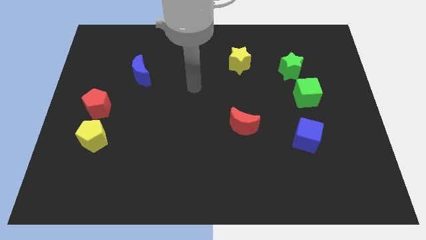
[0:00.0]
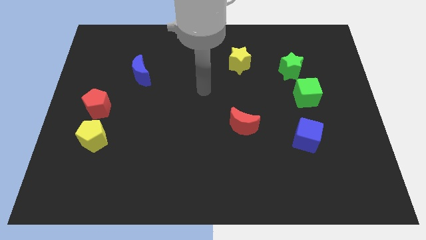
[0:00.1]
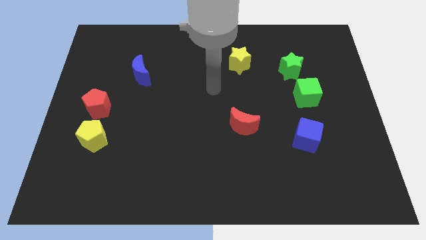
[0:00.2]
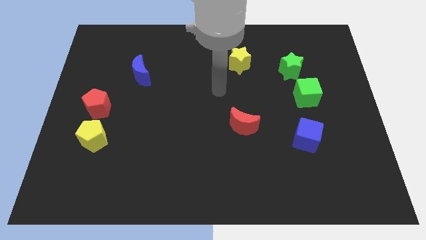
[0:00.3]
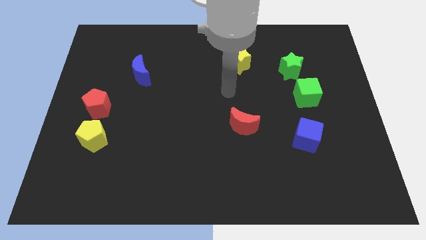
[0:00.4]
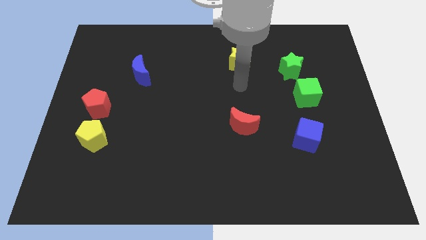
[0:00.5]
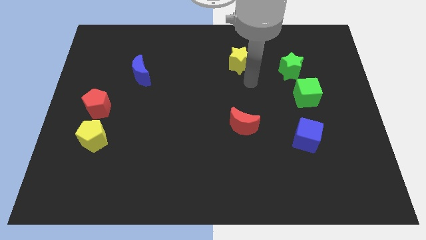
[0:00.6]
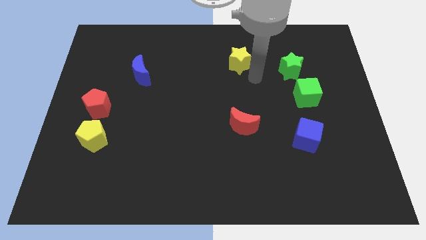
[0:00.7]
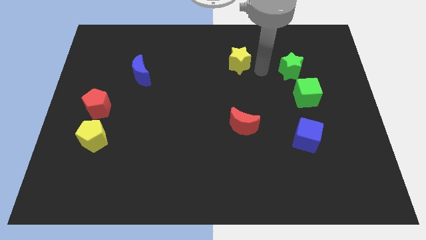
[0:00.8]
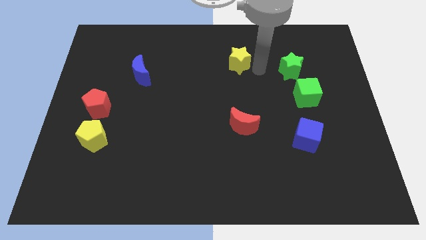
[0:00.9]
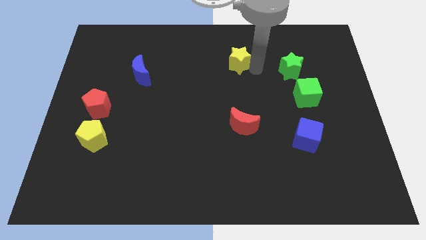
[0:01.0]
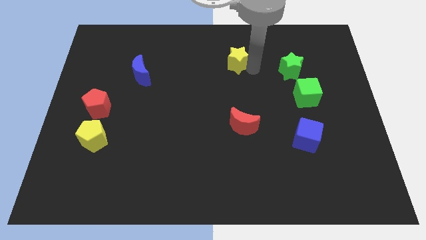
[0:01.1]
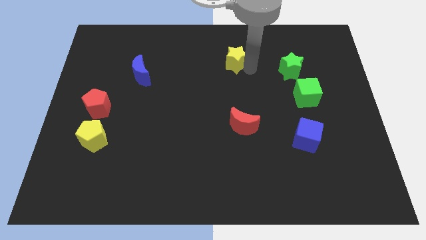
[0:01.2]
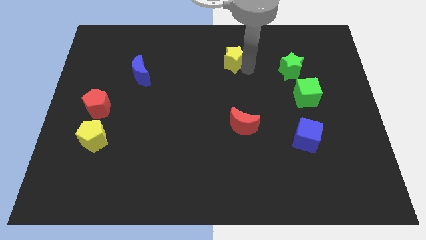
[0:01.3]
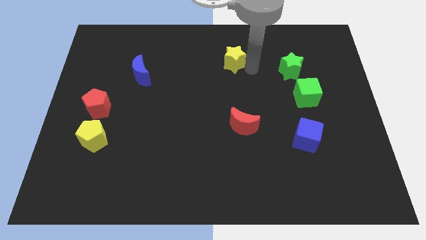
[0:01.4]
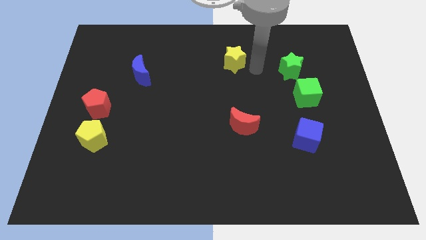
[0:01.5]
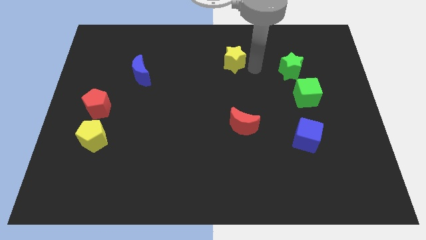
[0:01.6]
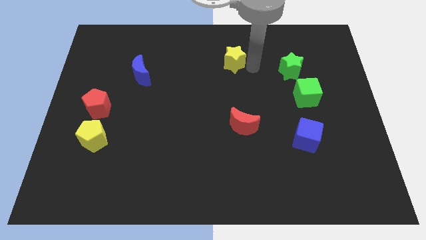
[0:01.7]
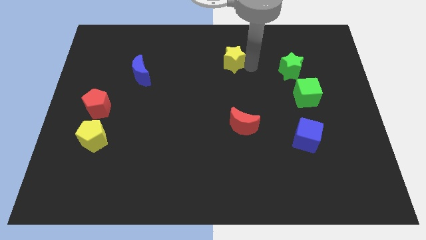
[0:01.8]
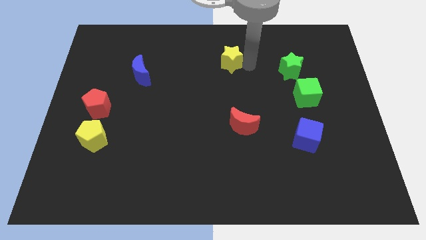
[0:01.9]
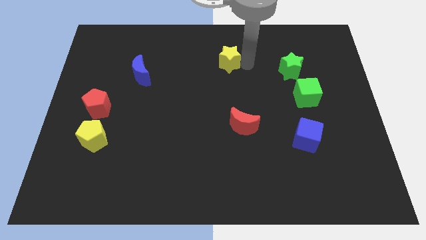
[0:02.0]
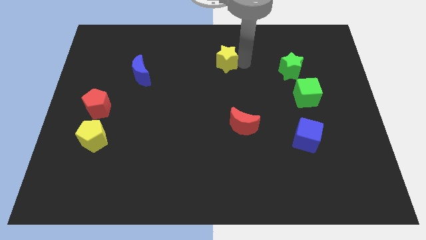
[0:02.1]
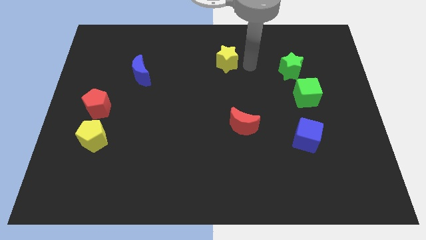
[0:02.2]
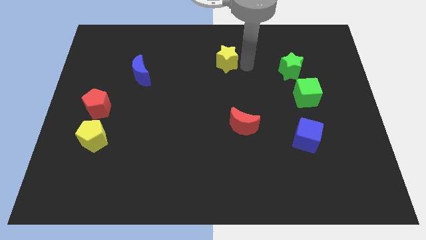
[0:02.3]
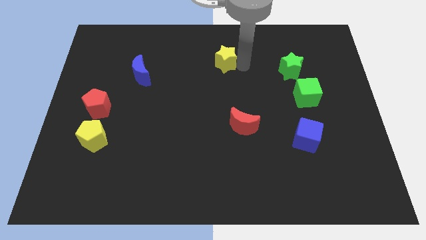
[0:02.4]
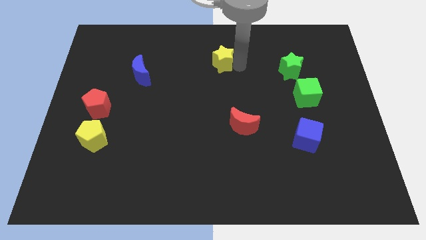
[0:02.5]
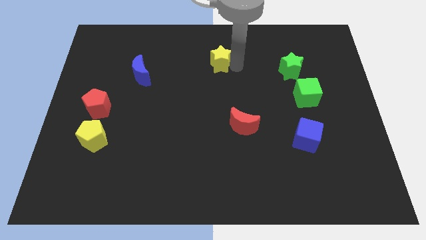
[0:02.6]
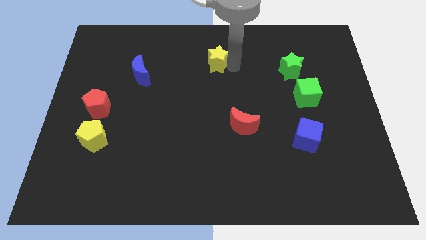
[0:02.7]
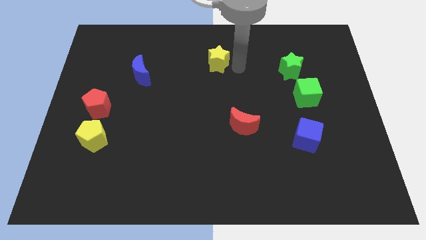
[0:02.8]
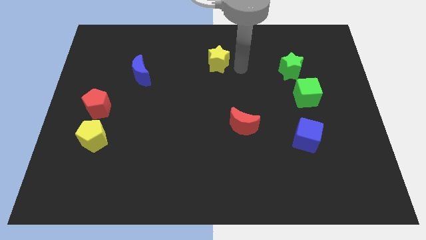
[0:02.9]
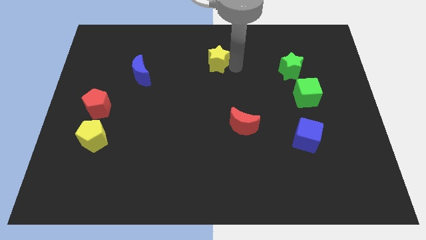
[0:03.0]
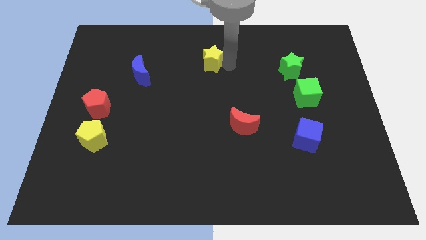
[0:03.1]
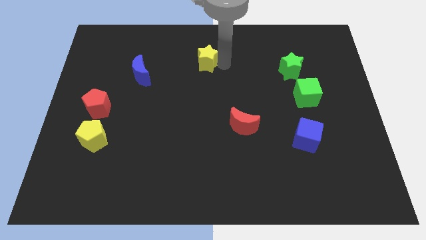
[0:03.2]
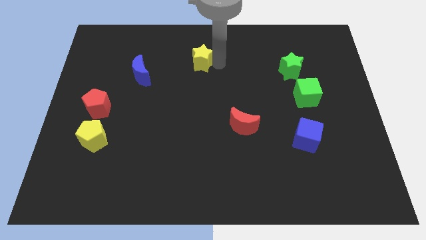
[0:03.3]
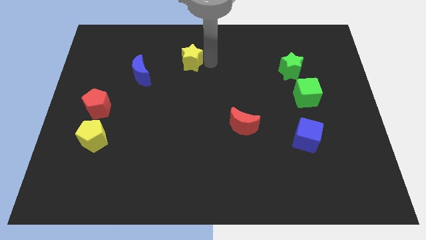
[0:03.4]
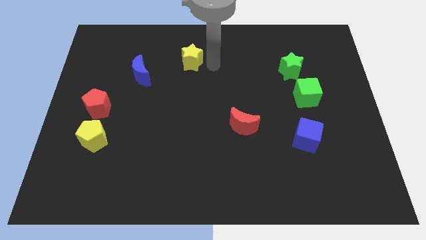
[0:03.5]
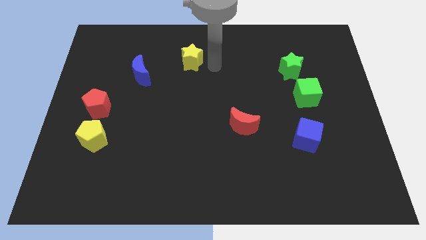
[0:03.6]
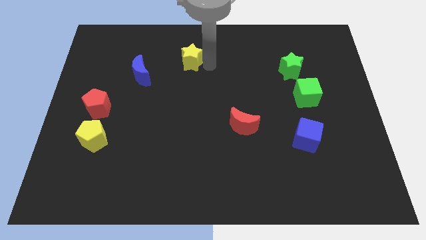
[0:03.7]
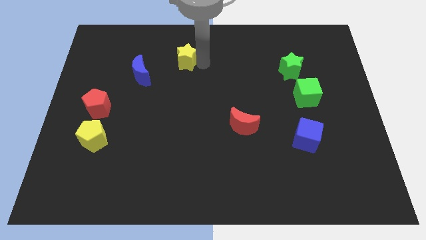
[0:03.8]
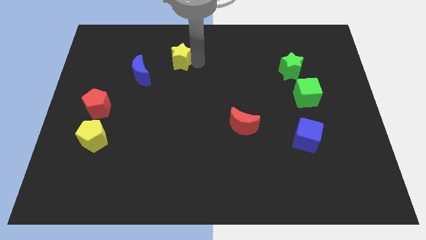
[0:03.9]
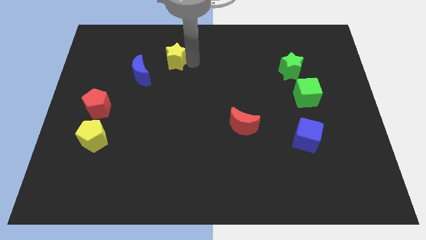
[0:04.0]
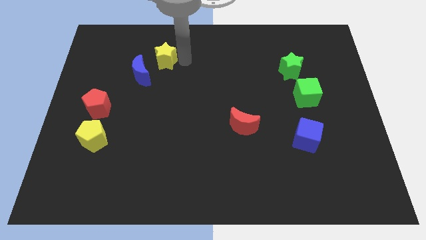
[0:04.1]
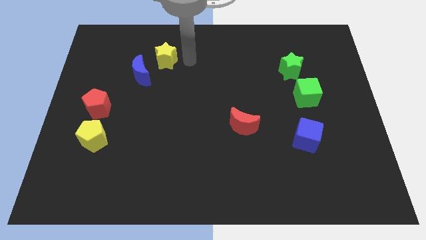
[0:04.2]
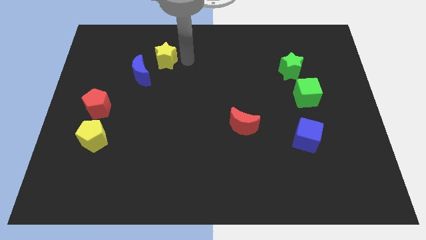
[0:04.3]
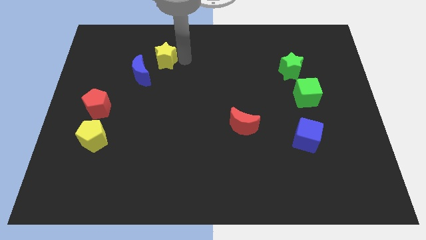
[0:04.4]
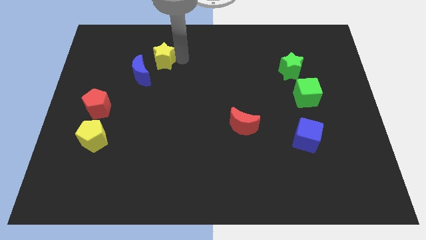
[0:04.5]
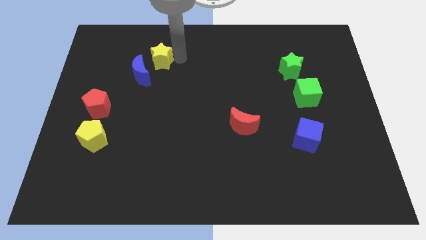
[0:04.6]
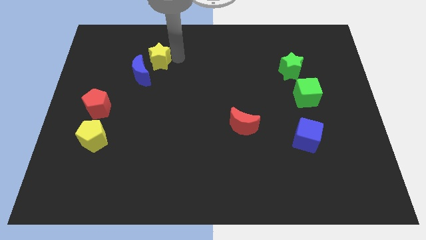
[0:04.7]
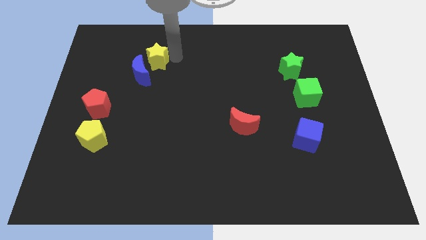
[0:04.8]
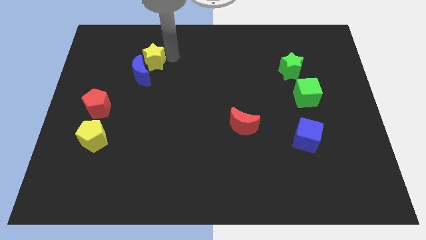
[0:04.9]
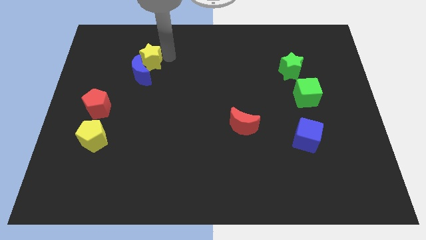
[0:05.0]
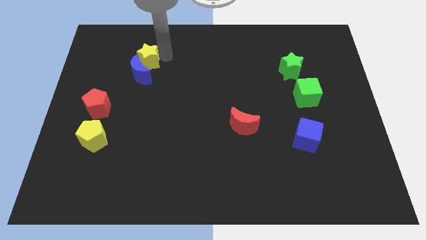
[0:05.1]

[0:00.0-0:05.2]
move the yellow star diagonally up and to the left of the blue moon

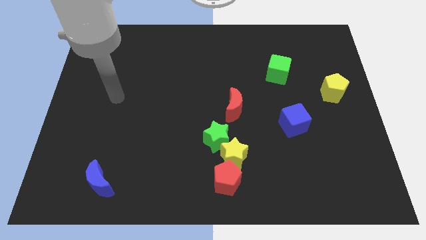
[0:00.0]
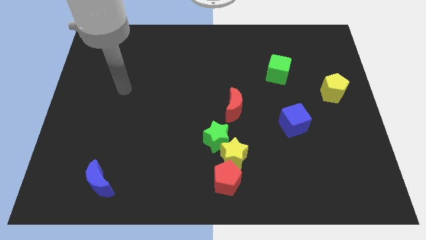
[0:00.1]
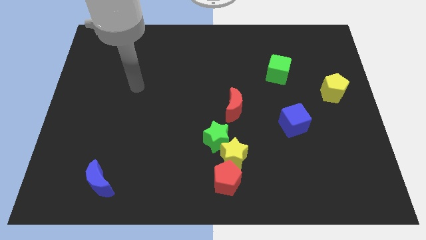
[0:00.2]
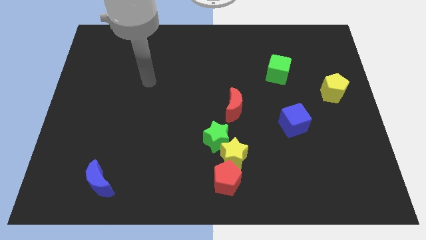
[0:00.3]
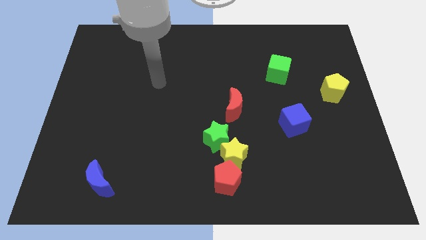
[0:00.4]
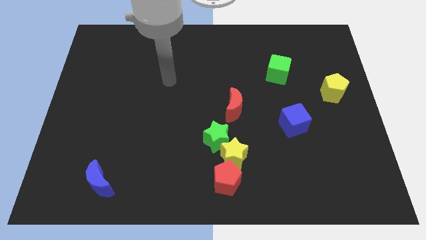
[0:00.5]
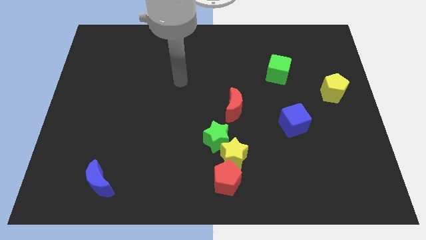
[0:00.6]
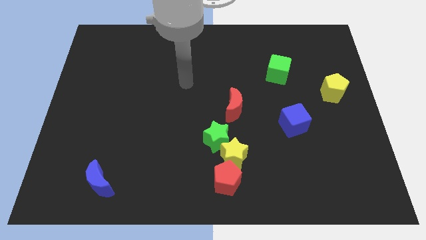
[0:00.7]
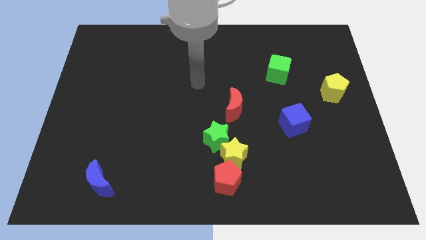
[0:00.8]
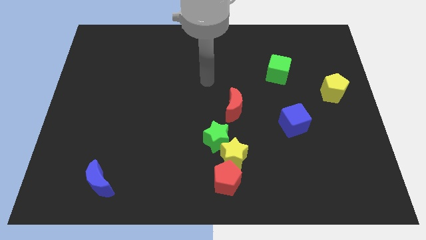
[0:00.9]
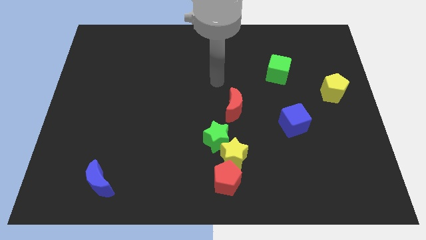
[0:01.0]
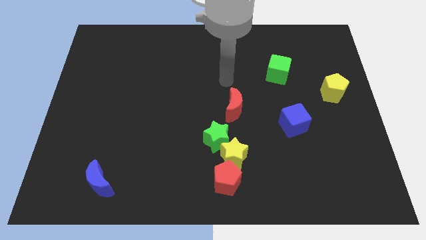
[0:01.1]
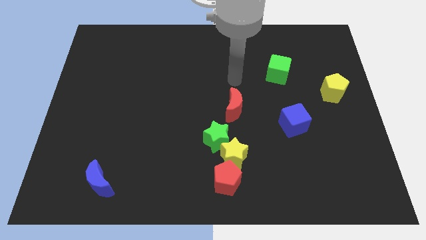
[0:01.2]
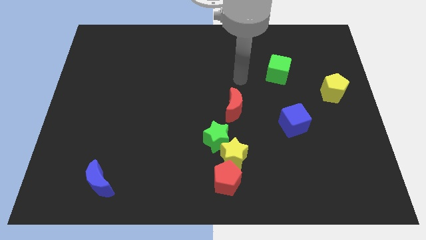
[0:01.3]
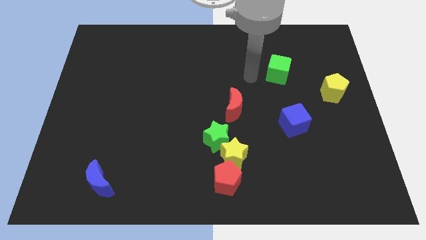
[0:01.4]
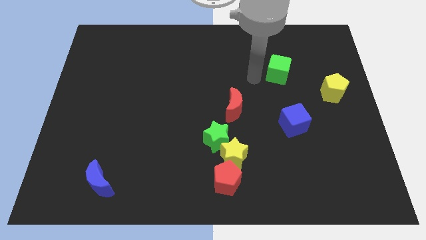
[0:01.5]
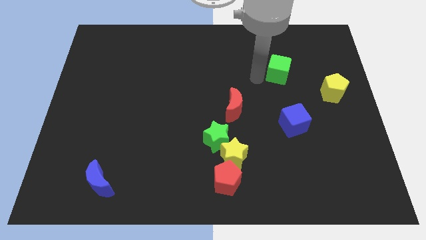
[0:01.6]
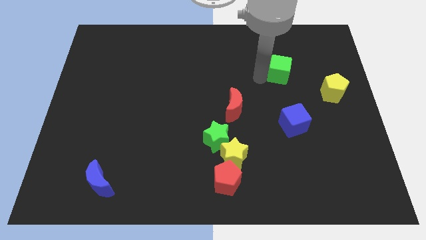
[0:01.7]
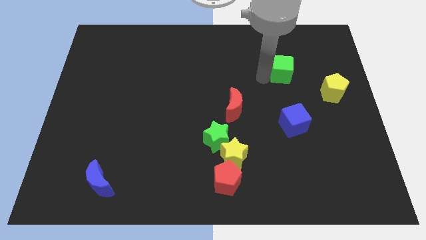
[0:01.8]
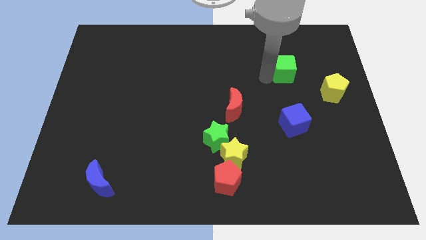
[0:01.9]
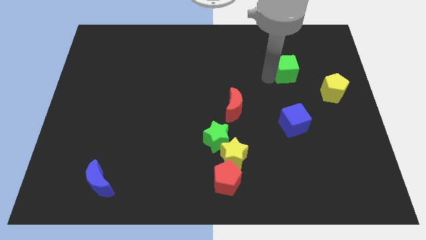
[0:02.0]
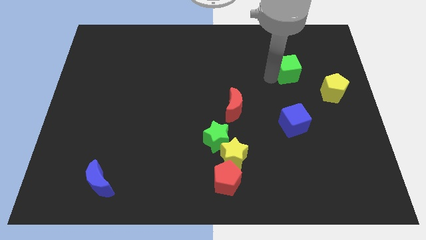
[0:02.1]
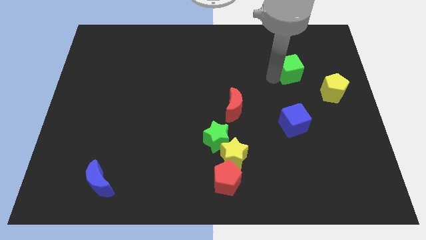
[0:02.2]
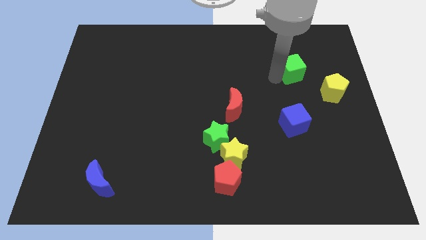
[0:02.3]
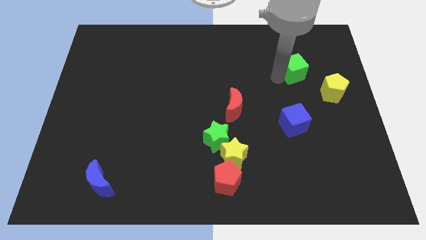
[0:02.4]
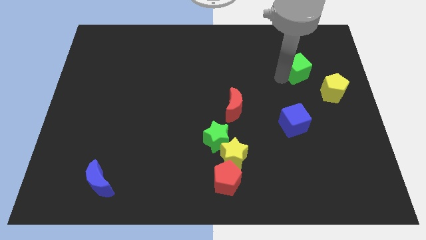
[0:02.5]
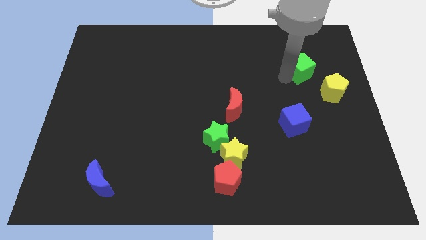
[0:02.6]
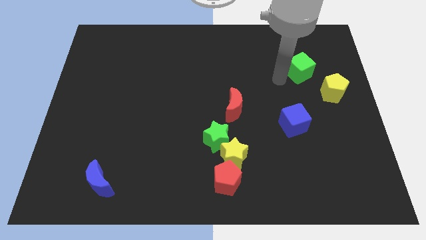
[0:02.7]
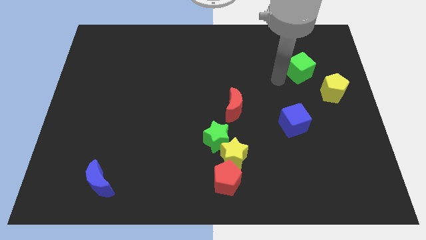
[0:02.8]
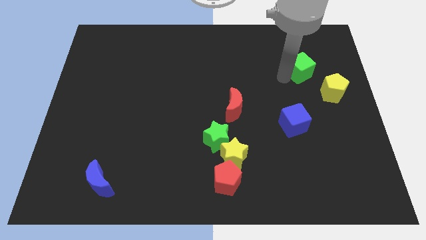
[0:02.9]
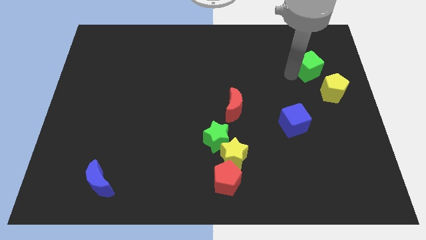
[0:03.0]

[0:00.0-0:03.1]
move the green cube to the top of the yellow pentagon
